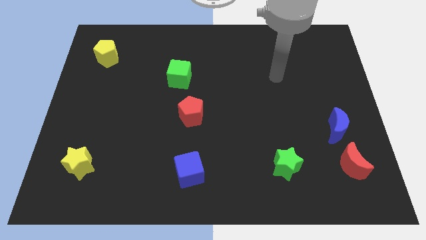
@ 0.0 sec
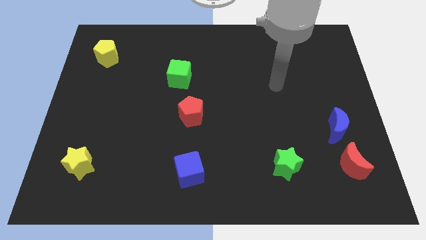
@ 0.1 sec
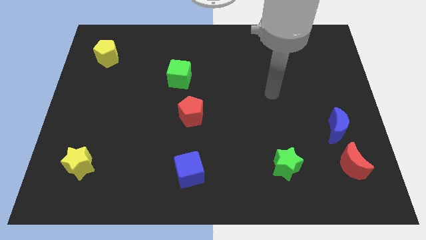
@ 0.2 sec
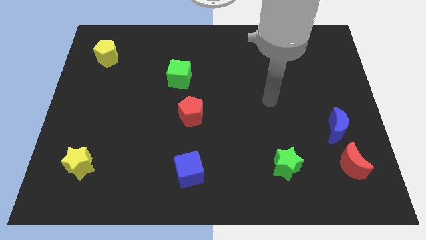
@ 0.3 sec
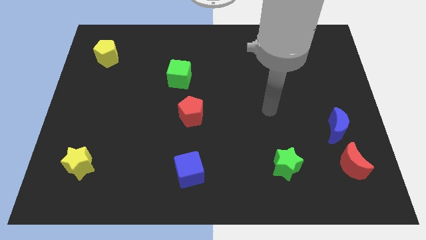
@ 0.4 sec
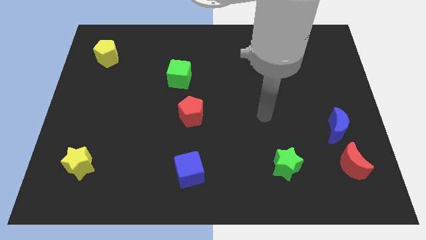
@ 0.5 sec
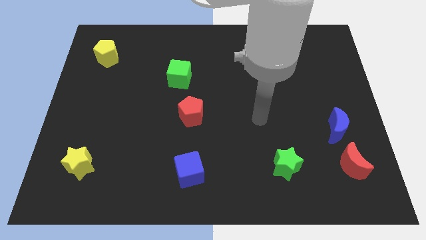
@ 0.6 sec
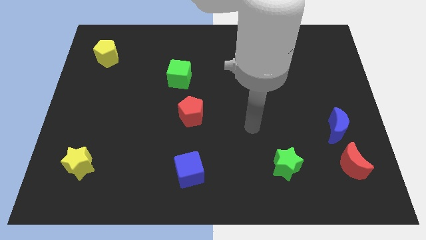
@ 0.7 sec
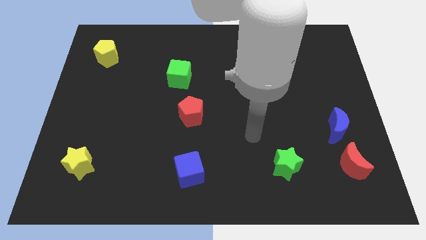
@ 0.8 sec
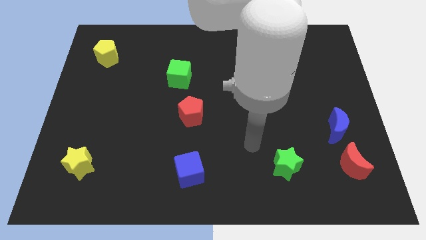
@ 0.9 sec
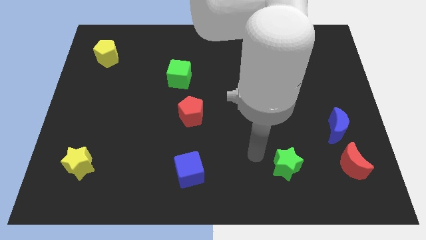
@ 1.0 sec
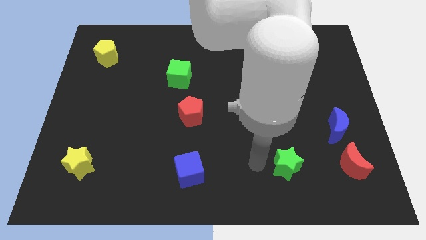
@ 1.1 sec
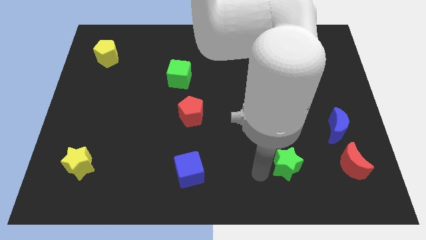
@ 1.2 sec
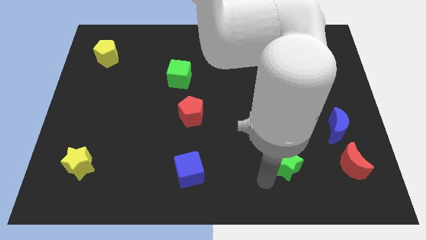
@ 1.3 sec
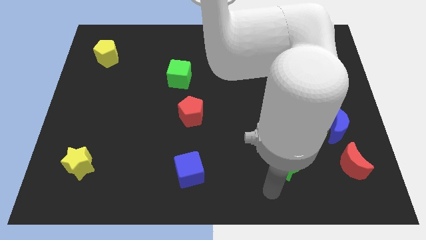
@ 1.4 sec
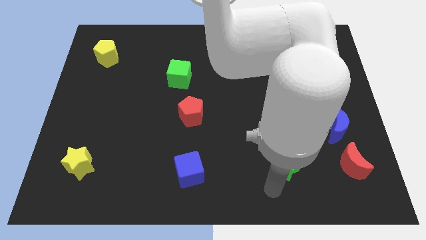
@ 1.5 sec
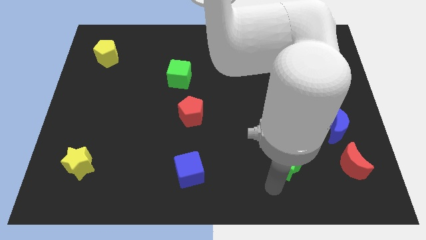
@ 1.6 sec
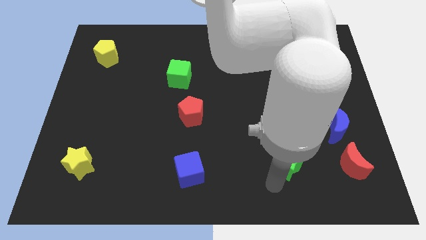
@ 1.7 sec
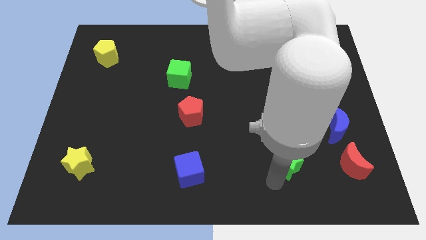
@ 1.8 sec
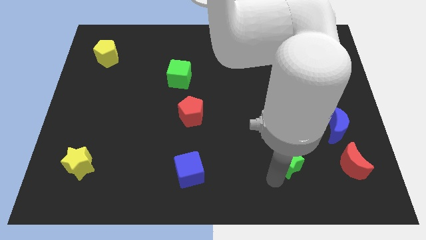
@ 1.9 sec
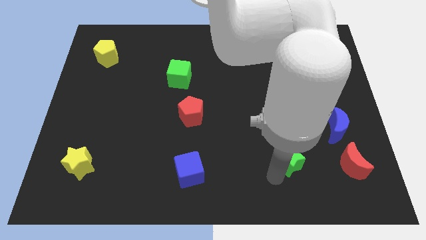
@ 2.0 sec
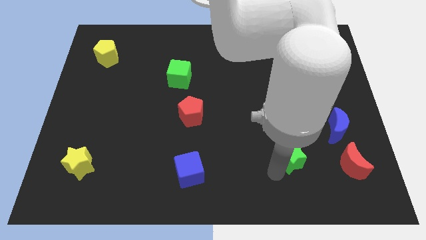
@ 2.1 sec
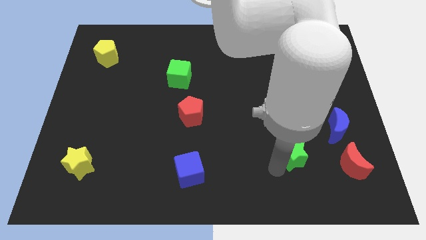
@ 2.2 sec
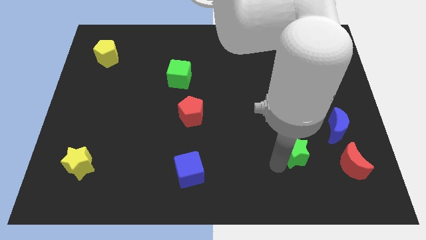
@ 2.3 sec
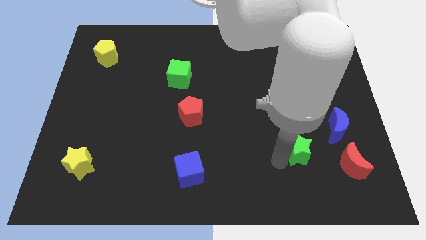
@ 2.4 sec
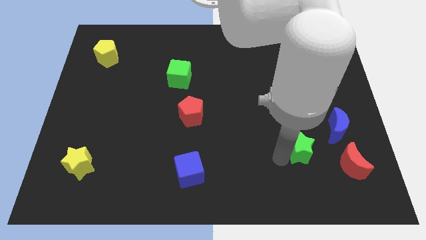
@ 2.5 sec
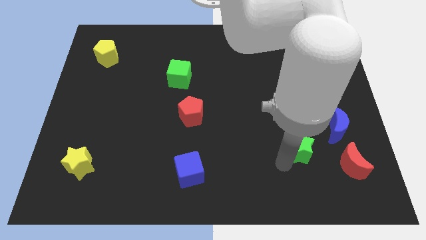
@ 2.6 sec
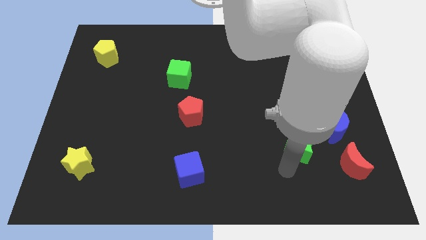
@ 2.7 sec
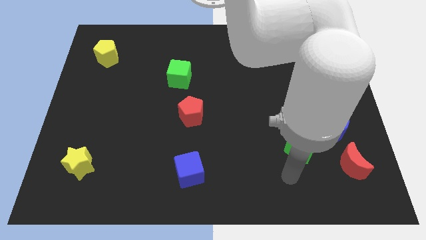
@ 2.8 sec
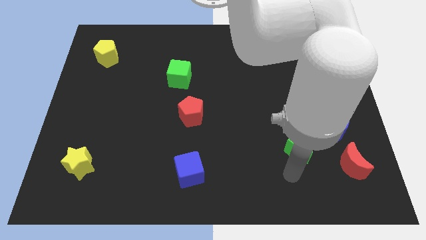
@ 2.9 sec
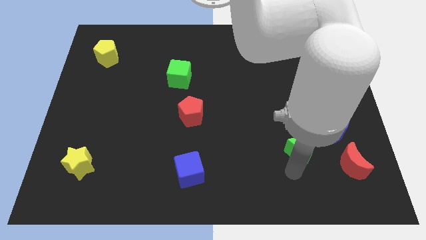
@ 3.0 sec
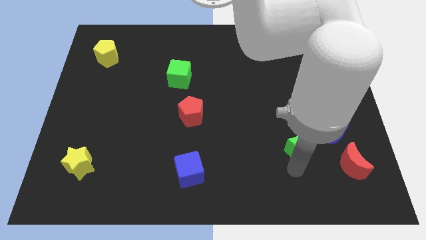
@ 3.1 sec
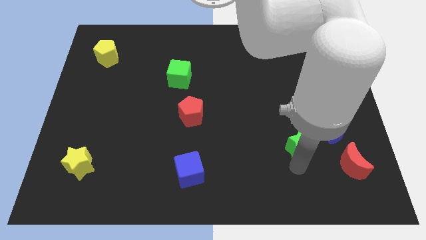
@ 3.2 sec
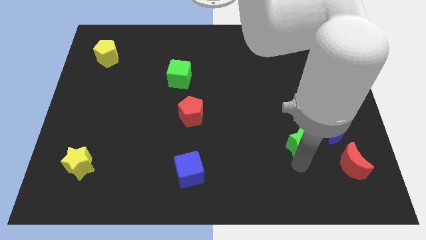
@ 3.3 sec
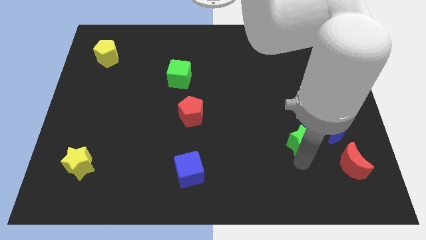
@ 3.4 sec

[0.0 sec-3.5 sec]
slightly move the green star up and to the right diagonally

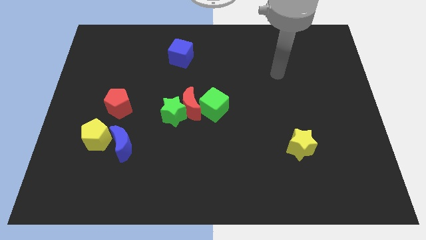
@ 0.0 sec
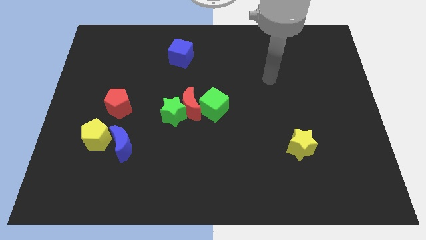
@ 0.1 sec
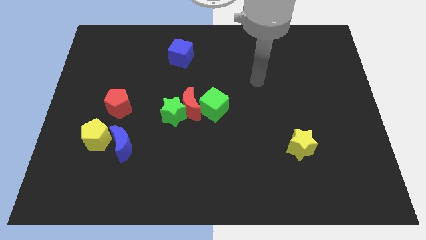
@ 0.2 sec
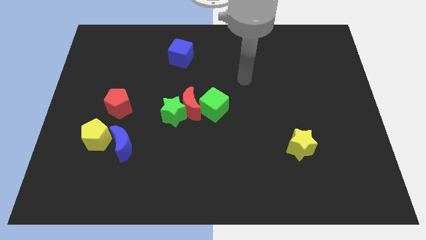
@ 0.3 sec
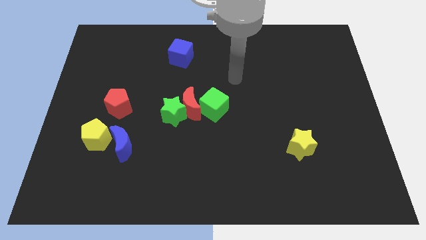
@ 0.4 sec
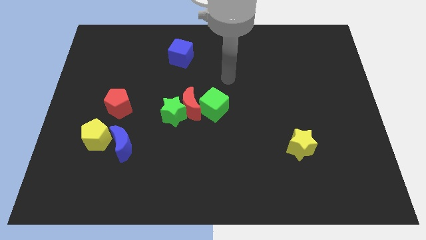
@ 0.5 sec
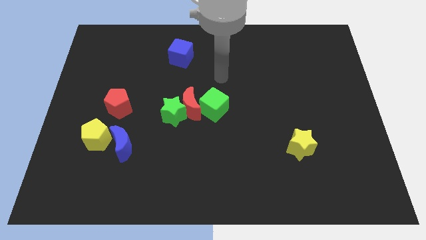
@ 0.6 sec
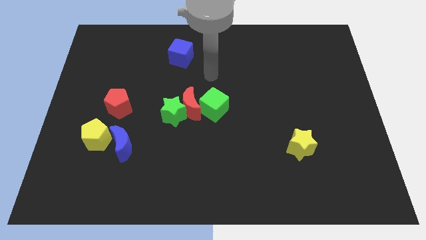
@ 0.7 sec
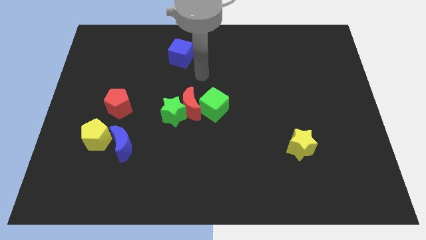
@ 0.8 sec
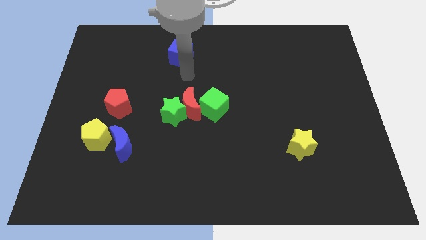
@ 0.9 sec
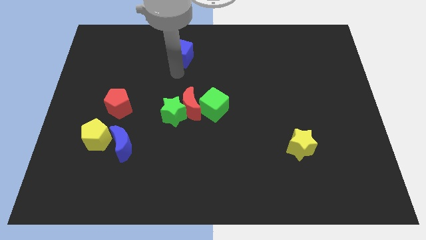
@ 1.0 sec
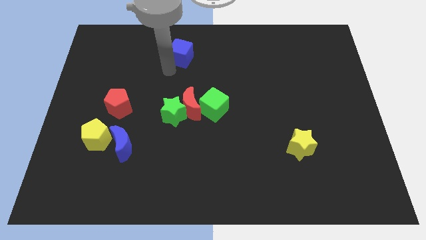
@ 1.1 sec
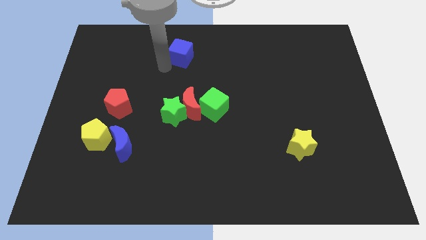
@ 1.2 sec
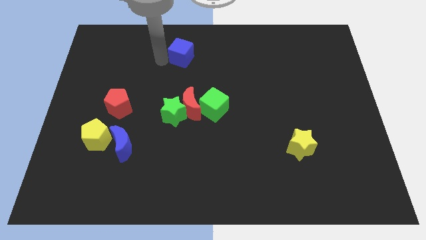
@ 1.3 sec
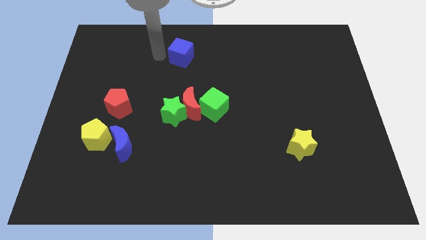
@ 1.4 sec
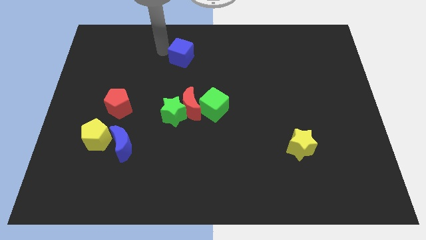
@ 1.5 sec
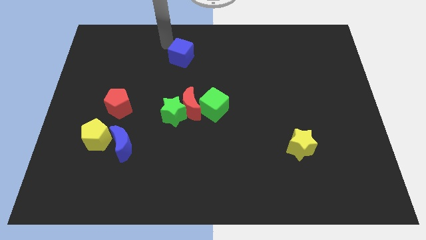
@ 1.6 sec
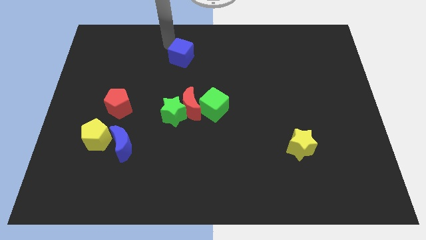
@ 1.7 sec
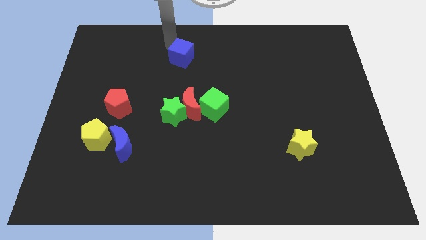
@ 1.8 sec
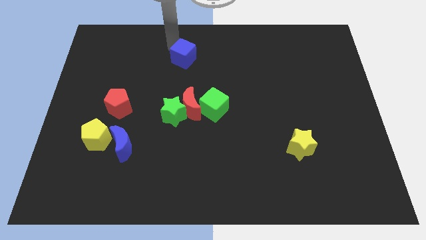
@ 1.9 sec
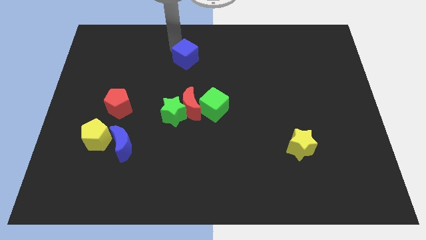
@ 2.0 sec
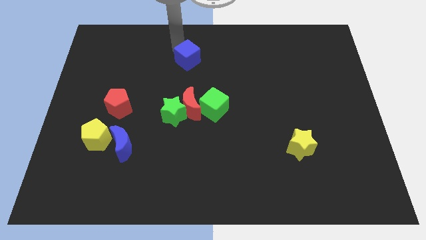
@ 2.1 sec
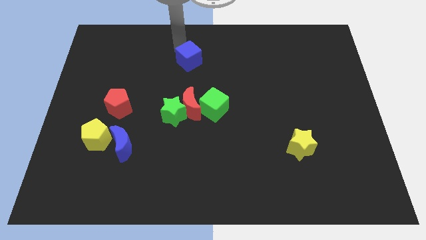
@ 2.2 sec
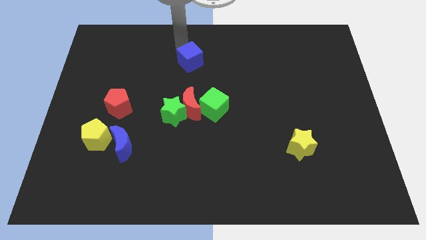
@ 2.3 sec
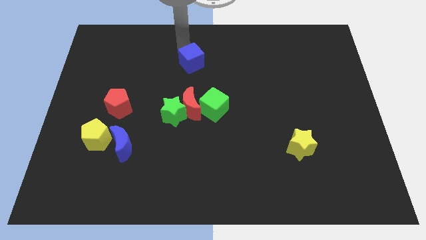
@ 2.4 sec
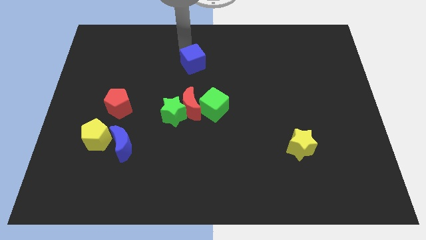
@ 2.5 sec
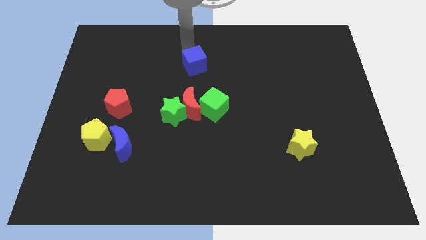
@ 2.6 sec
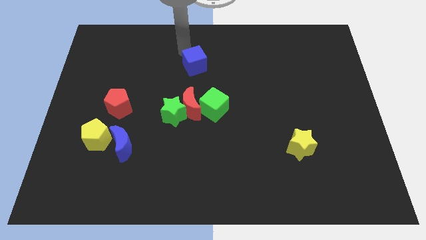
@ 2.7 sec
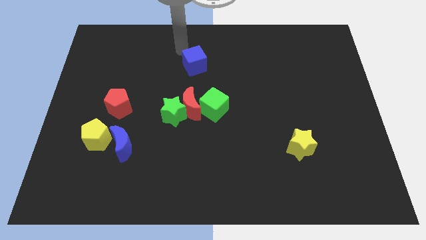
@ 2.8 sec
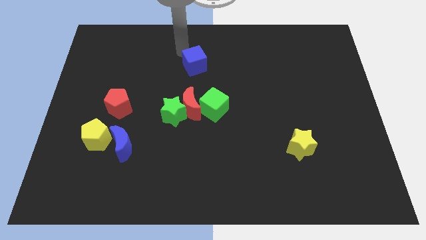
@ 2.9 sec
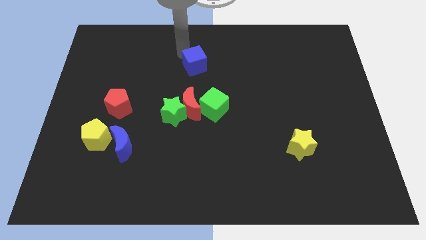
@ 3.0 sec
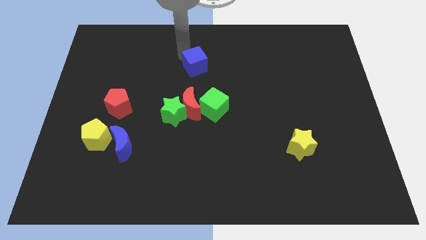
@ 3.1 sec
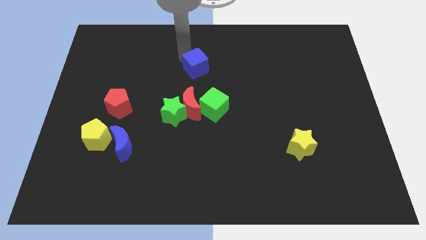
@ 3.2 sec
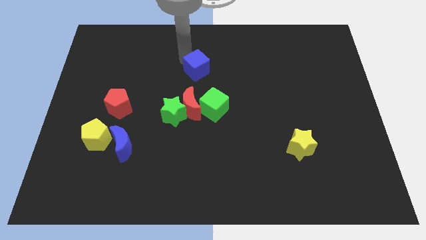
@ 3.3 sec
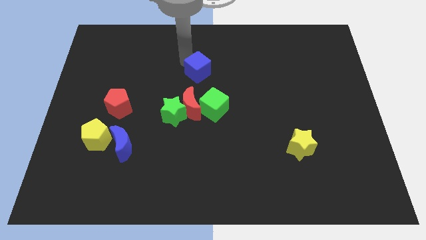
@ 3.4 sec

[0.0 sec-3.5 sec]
slightly move the blue cube diagonally down and to the right

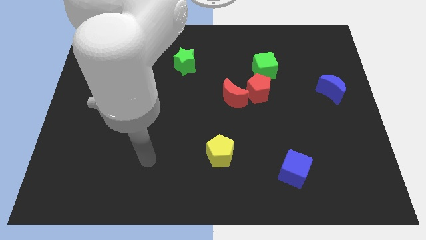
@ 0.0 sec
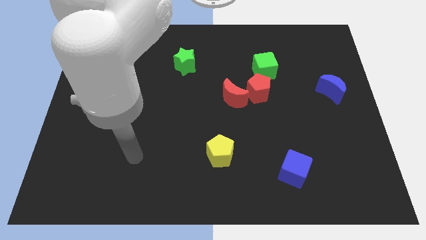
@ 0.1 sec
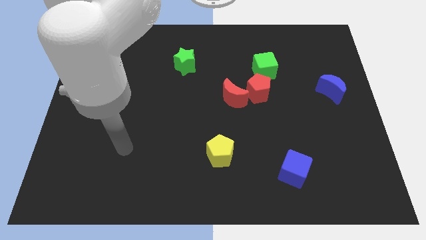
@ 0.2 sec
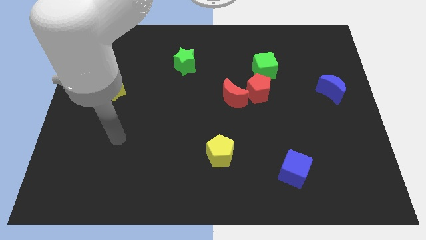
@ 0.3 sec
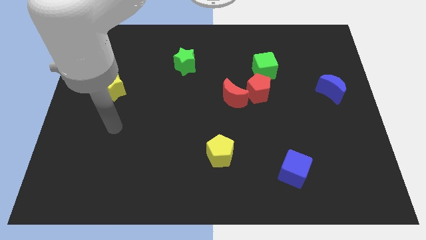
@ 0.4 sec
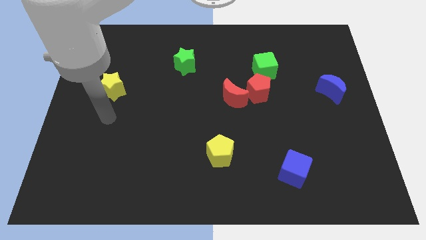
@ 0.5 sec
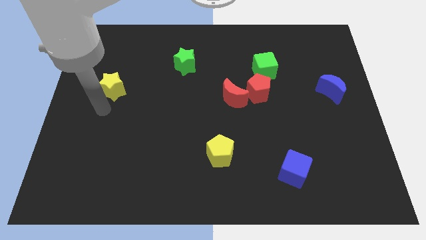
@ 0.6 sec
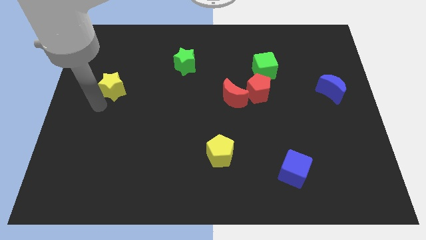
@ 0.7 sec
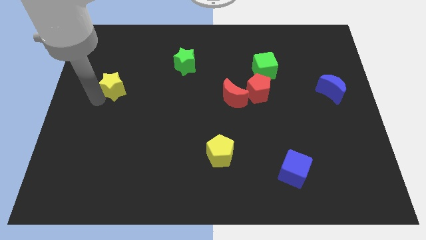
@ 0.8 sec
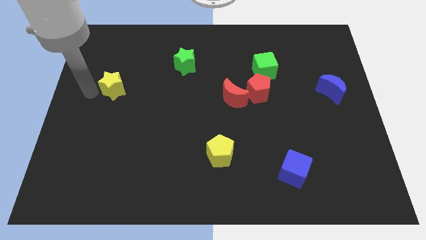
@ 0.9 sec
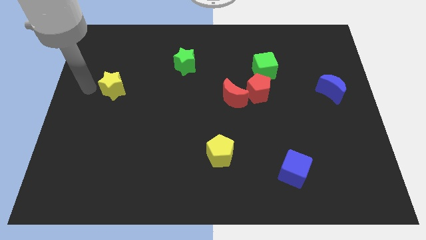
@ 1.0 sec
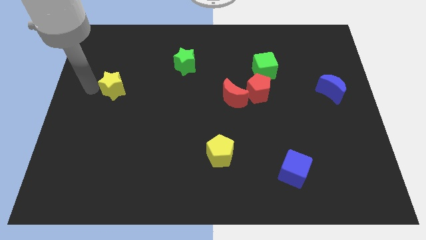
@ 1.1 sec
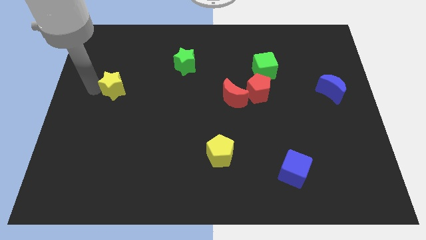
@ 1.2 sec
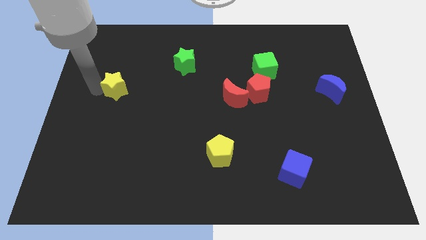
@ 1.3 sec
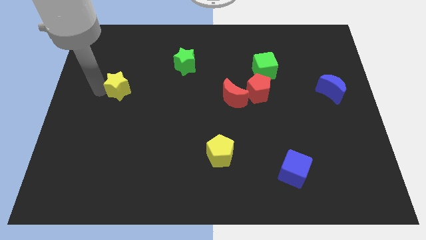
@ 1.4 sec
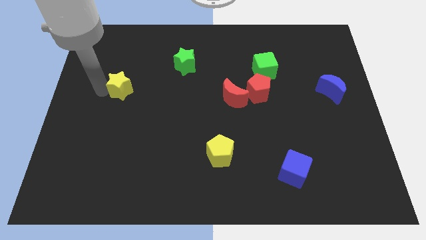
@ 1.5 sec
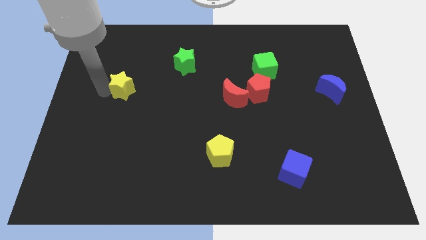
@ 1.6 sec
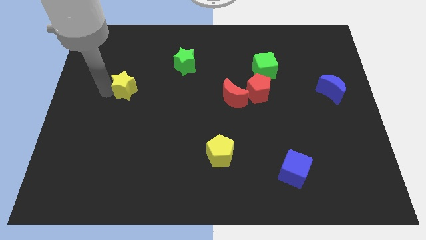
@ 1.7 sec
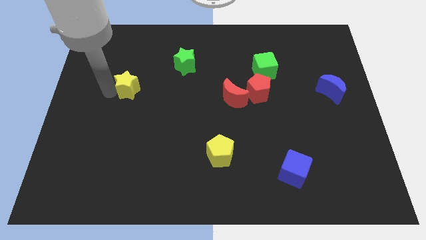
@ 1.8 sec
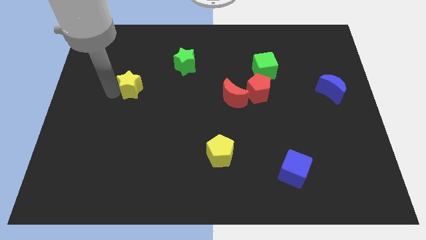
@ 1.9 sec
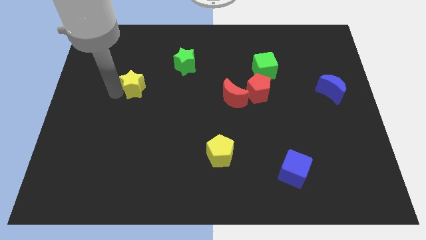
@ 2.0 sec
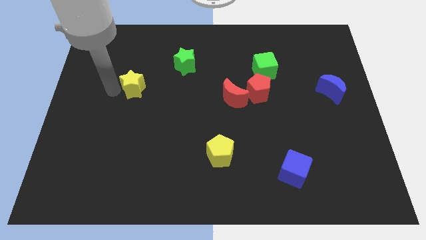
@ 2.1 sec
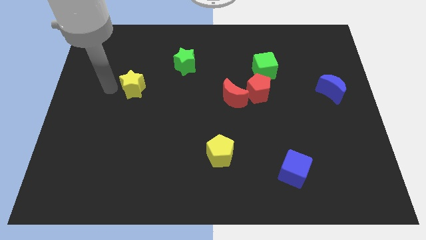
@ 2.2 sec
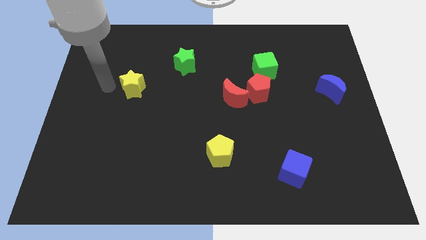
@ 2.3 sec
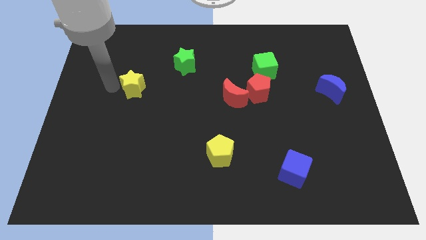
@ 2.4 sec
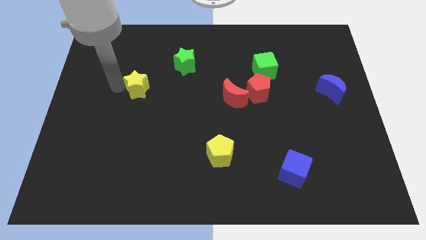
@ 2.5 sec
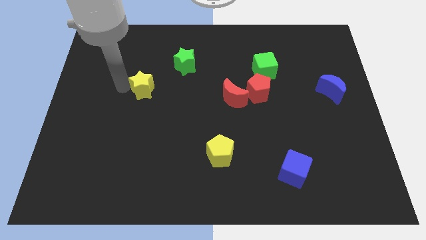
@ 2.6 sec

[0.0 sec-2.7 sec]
slightly push the yellow star to the right
